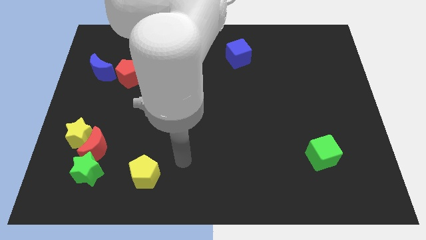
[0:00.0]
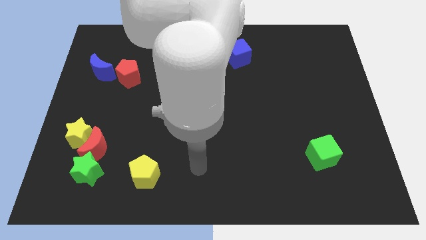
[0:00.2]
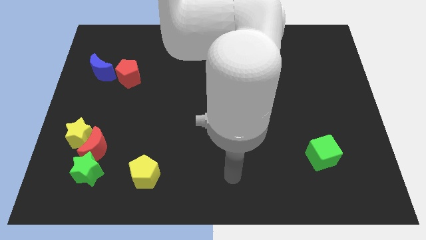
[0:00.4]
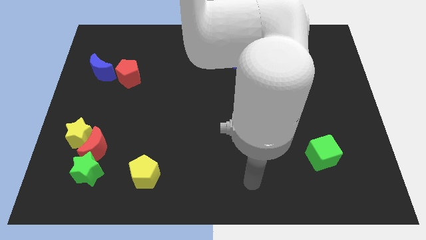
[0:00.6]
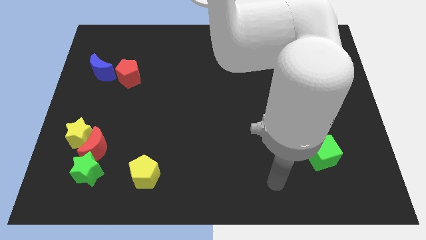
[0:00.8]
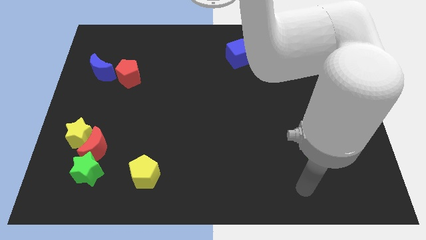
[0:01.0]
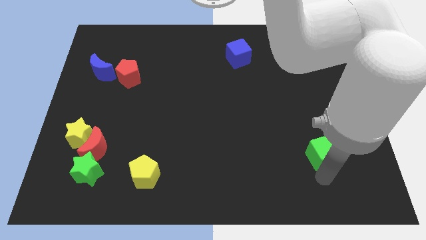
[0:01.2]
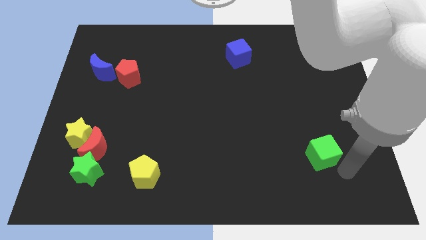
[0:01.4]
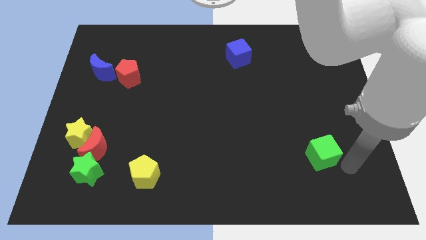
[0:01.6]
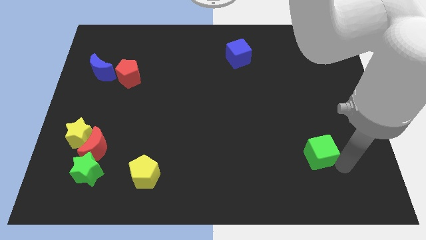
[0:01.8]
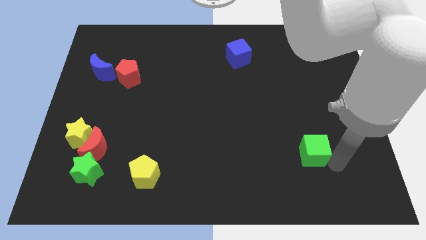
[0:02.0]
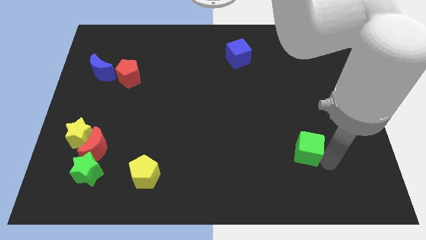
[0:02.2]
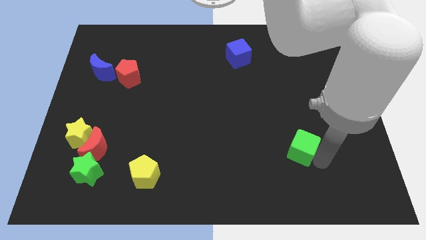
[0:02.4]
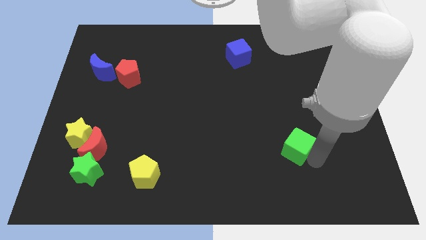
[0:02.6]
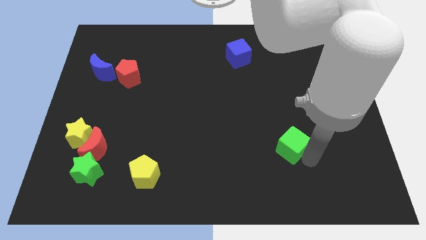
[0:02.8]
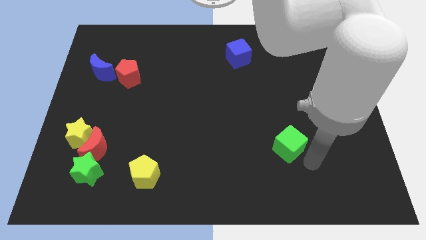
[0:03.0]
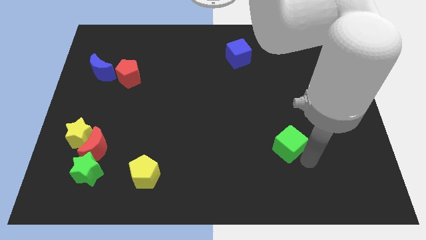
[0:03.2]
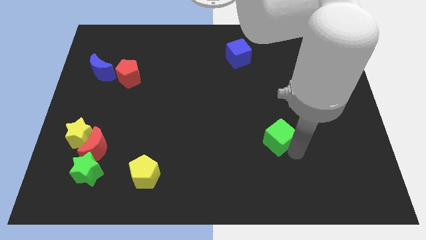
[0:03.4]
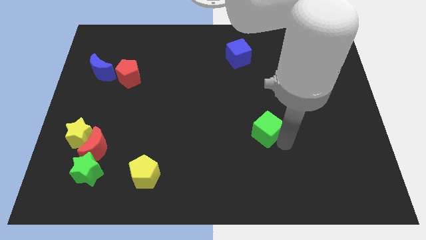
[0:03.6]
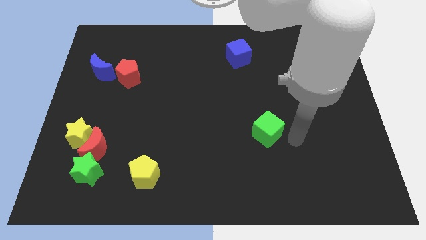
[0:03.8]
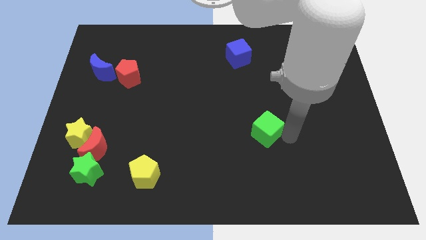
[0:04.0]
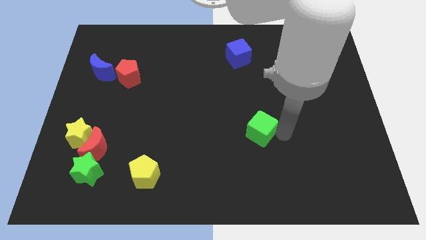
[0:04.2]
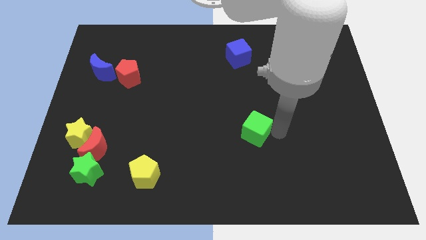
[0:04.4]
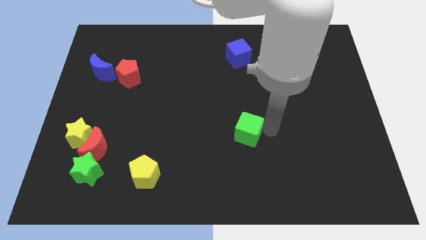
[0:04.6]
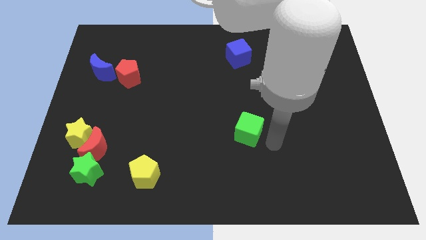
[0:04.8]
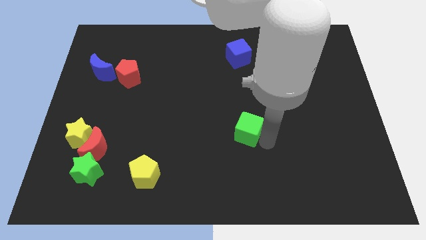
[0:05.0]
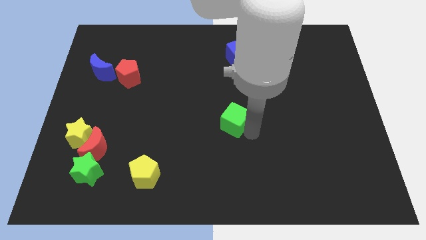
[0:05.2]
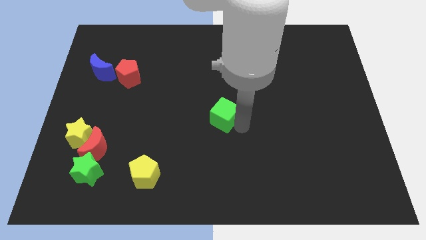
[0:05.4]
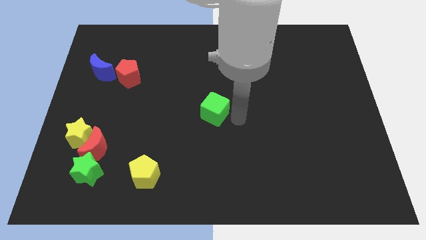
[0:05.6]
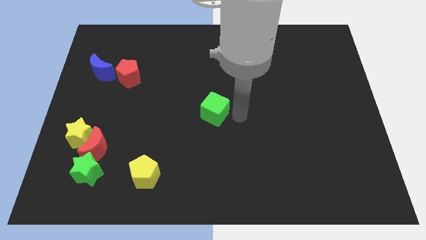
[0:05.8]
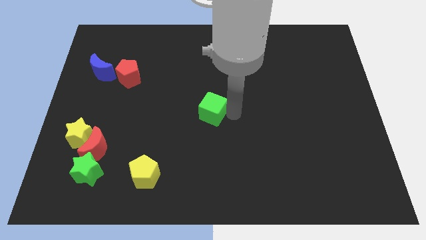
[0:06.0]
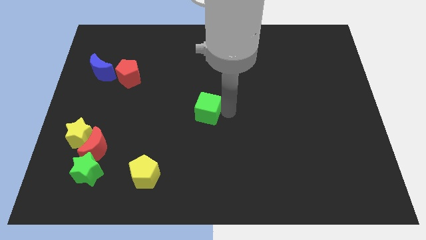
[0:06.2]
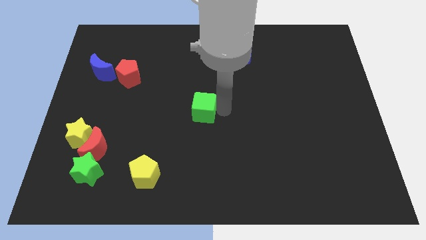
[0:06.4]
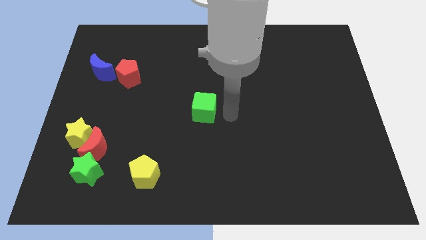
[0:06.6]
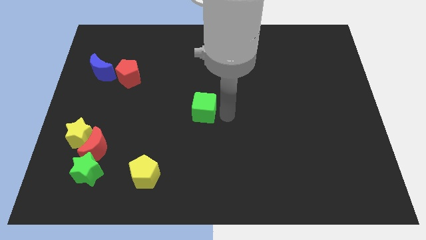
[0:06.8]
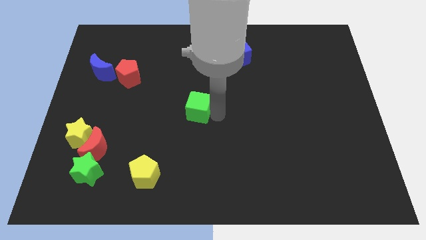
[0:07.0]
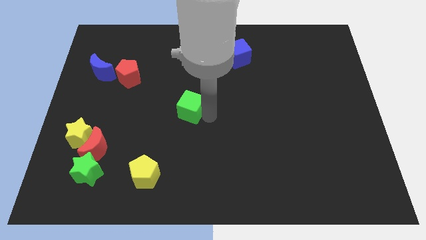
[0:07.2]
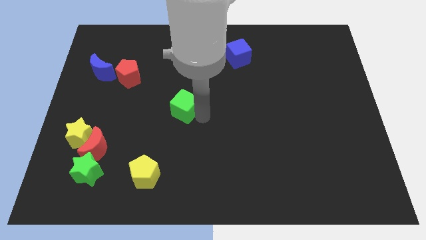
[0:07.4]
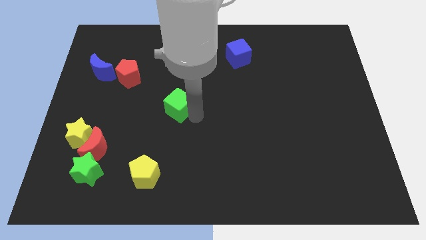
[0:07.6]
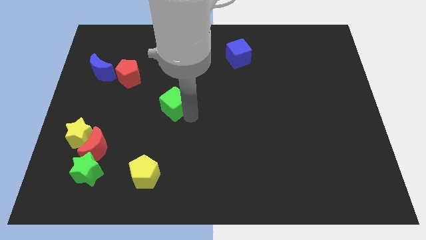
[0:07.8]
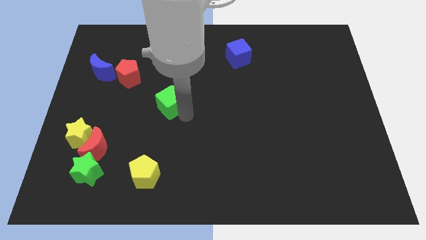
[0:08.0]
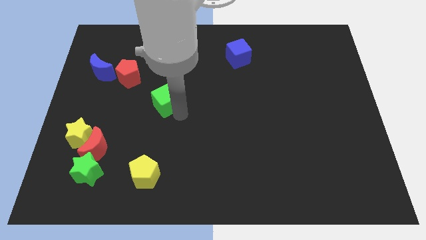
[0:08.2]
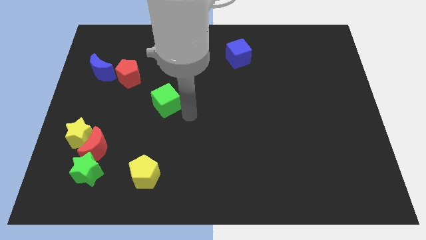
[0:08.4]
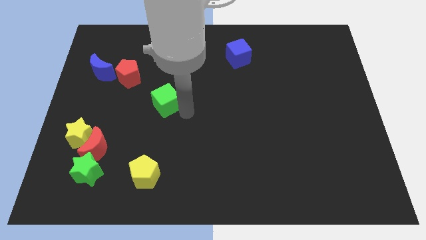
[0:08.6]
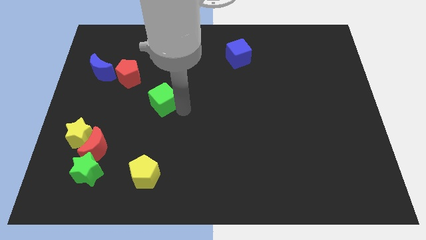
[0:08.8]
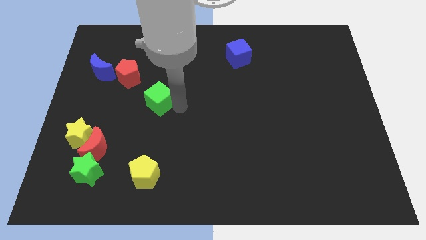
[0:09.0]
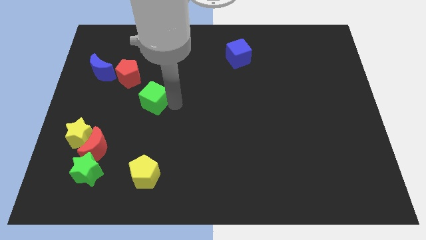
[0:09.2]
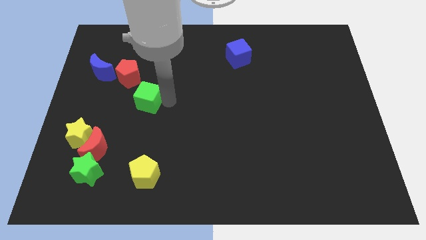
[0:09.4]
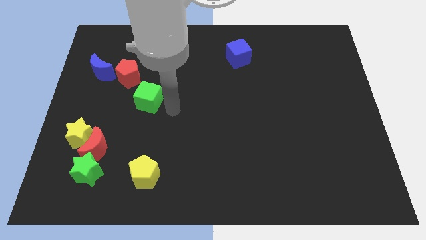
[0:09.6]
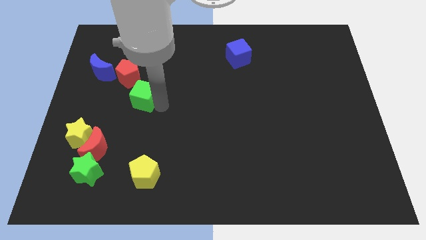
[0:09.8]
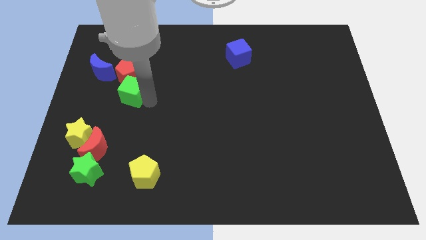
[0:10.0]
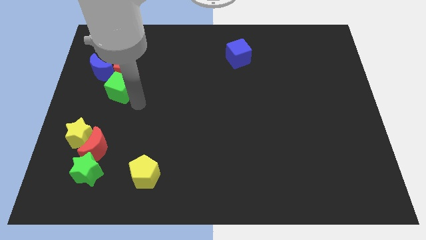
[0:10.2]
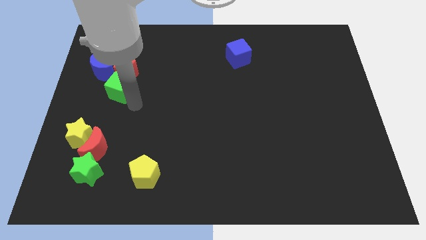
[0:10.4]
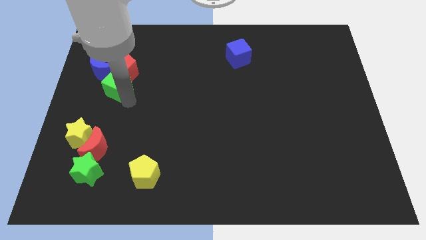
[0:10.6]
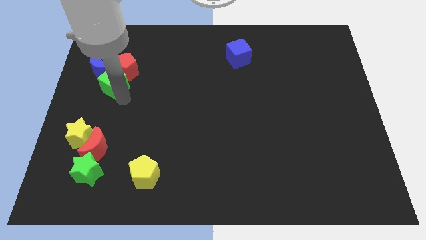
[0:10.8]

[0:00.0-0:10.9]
put the green cube to the blue moon

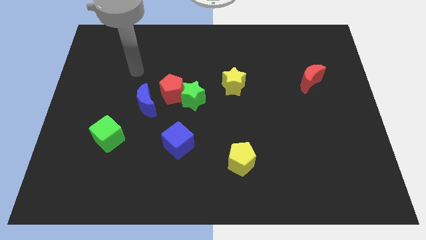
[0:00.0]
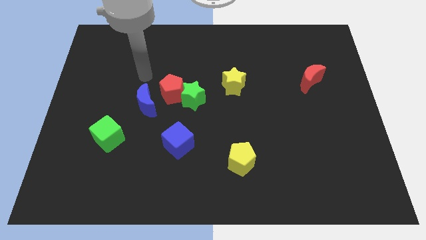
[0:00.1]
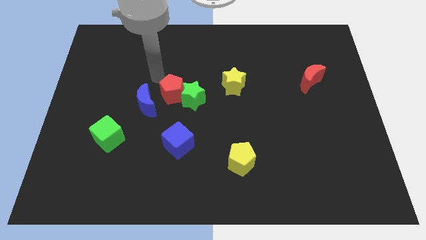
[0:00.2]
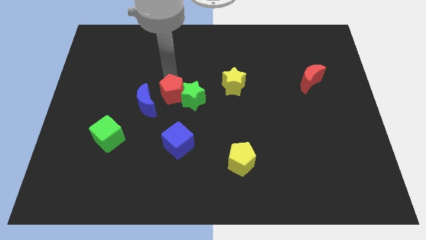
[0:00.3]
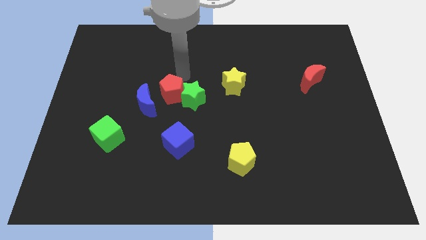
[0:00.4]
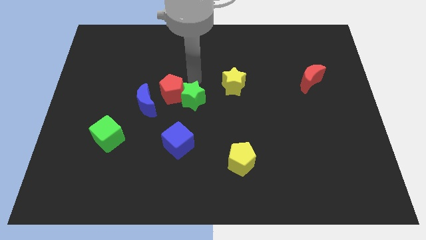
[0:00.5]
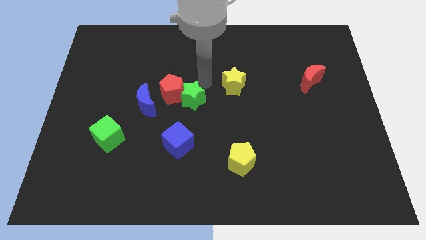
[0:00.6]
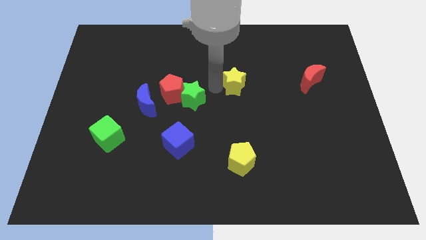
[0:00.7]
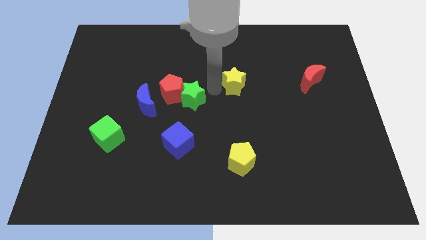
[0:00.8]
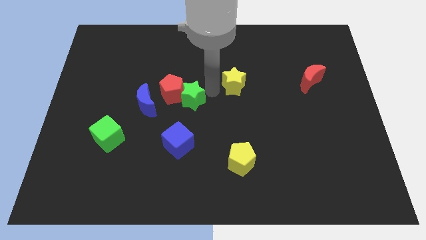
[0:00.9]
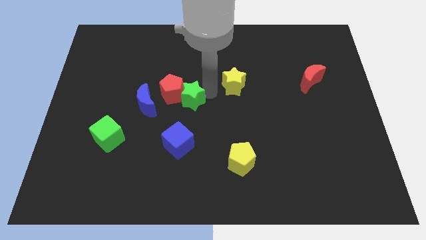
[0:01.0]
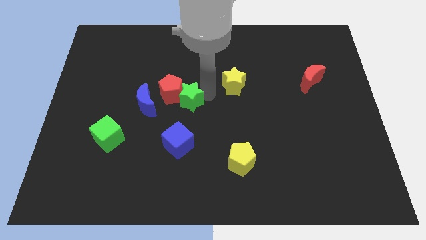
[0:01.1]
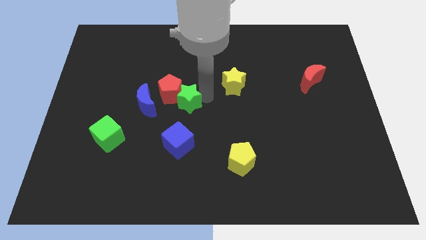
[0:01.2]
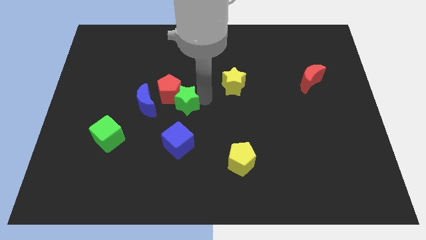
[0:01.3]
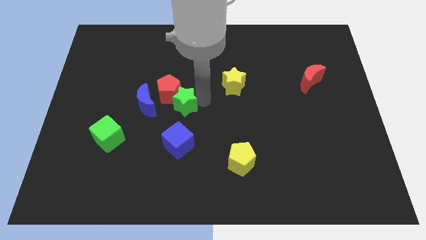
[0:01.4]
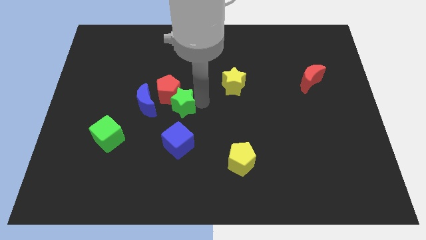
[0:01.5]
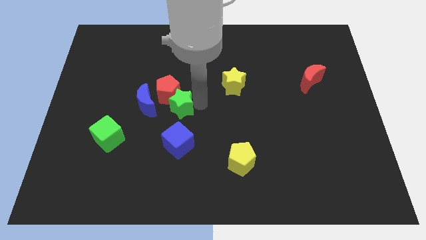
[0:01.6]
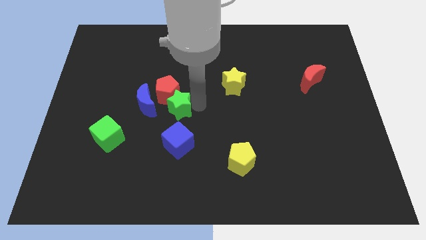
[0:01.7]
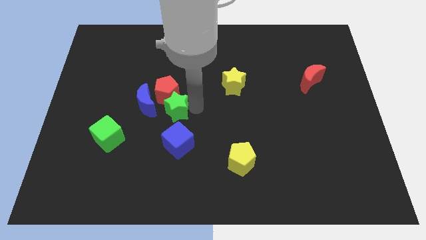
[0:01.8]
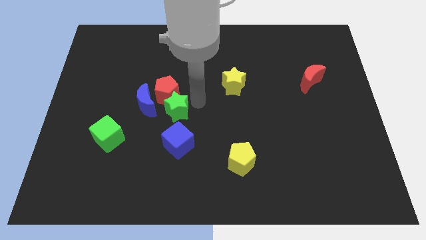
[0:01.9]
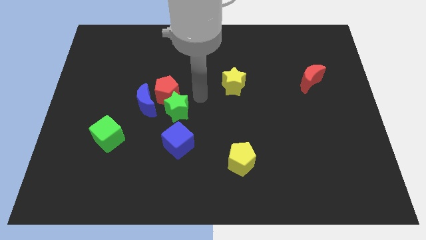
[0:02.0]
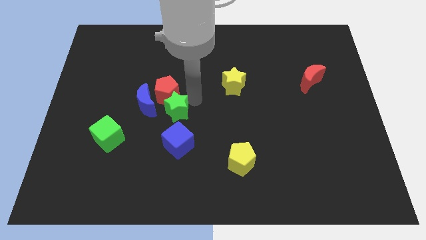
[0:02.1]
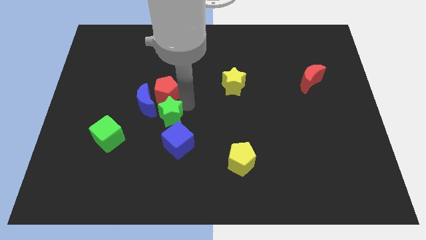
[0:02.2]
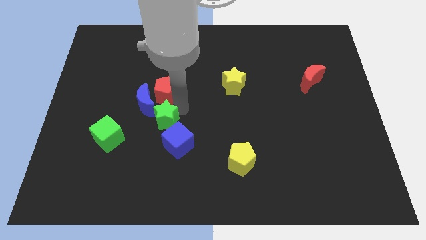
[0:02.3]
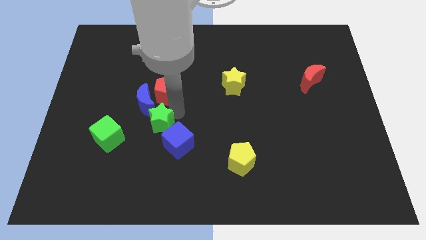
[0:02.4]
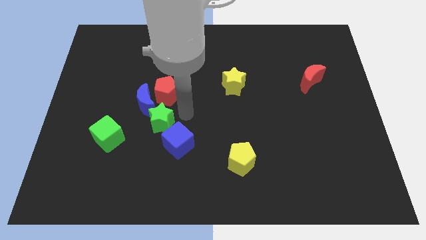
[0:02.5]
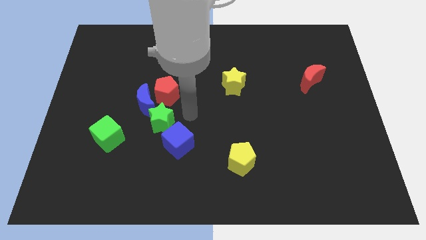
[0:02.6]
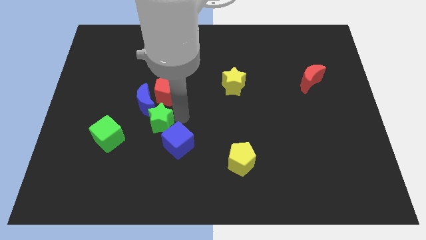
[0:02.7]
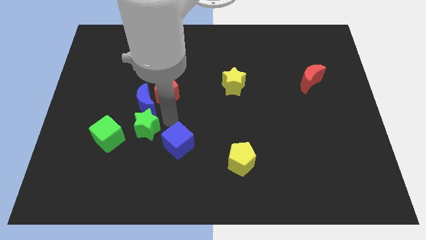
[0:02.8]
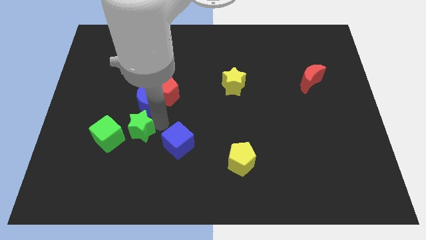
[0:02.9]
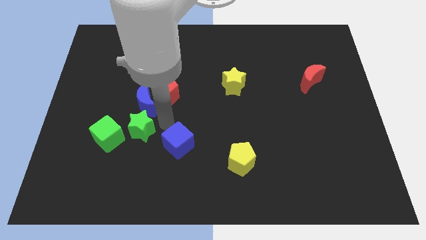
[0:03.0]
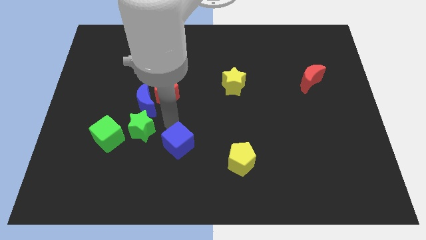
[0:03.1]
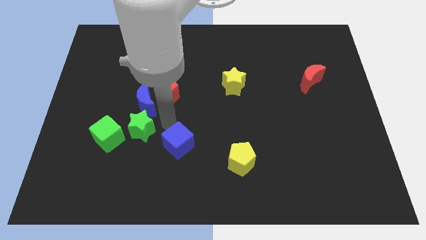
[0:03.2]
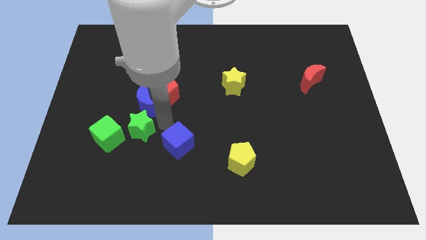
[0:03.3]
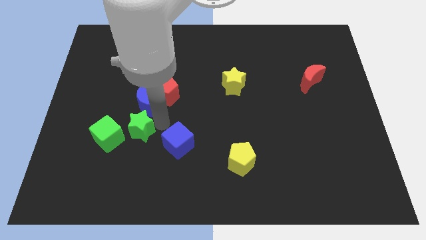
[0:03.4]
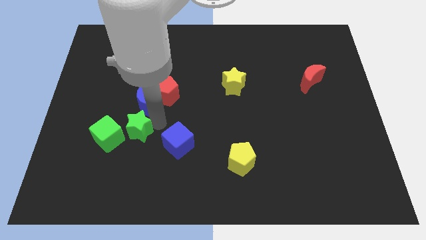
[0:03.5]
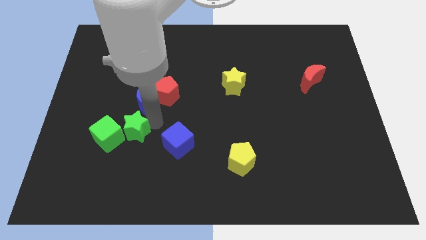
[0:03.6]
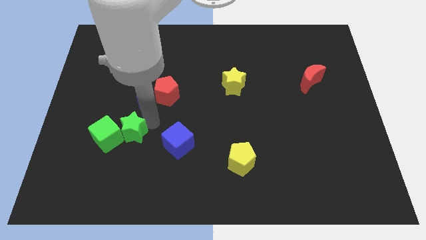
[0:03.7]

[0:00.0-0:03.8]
slide the green star to the green cube
